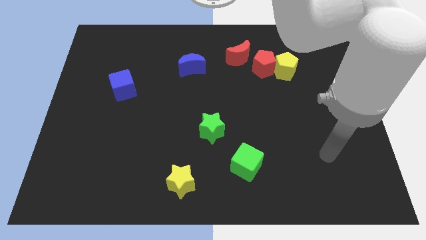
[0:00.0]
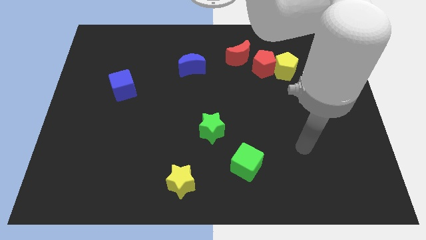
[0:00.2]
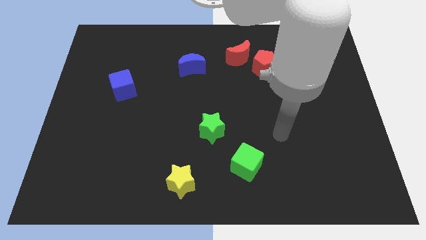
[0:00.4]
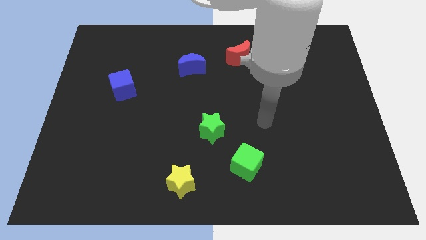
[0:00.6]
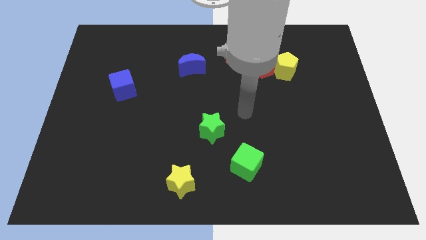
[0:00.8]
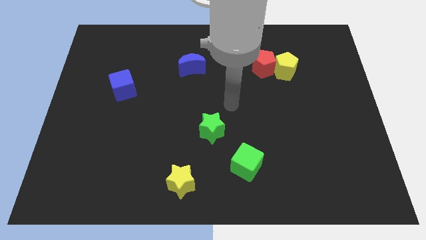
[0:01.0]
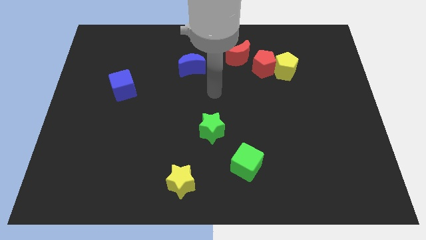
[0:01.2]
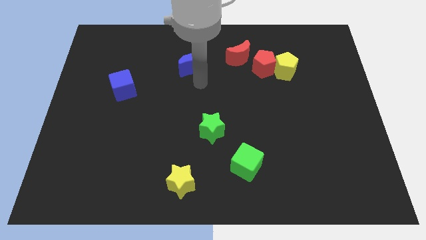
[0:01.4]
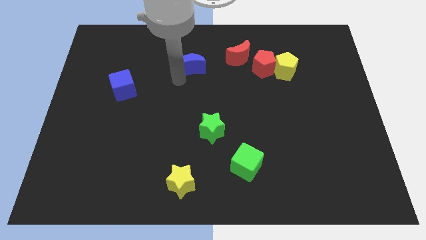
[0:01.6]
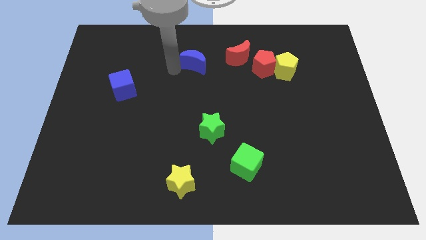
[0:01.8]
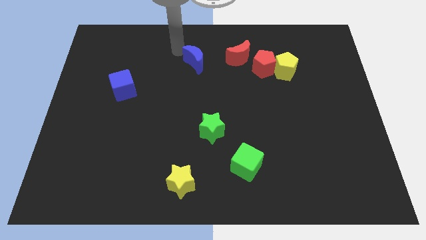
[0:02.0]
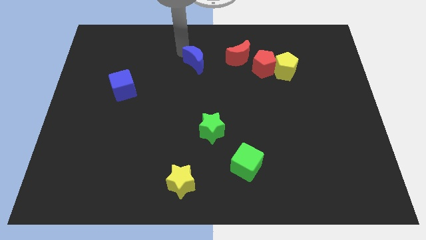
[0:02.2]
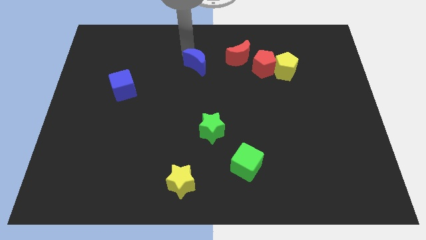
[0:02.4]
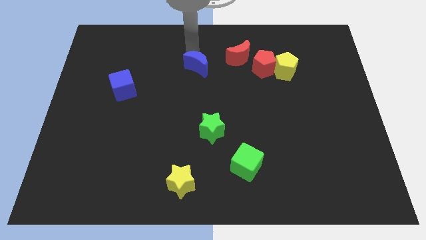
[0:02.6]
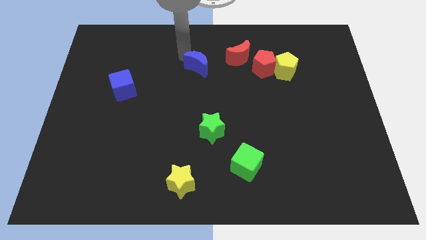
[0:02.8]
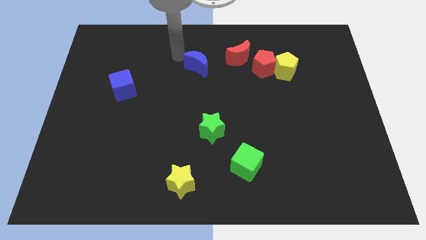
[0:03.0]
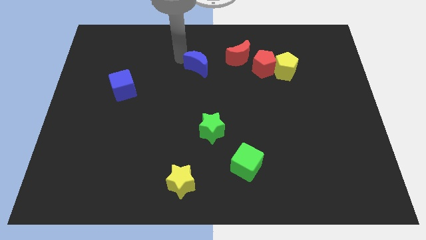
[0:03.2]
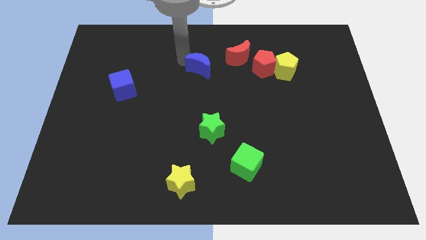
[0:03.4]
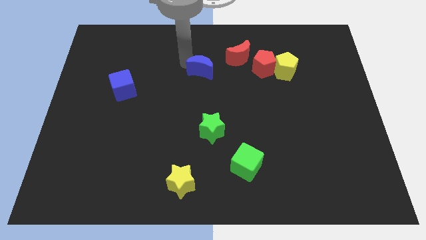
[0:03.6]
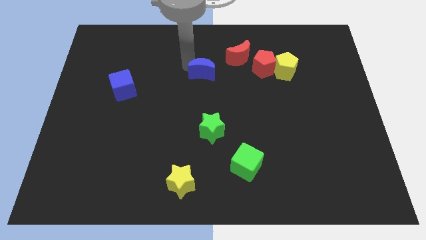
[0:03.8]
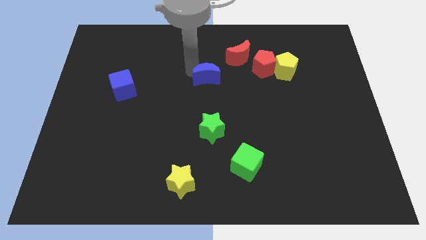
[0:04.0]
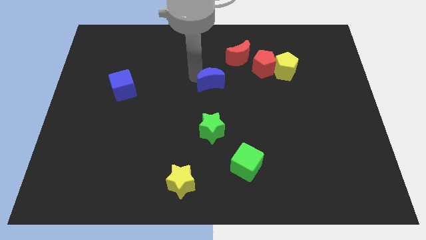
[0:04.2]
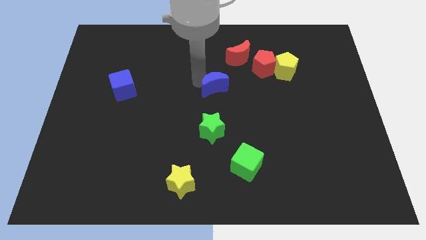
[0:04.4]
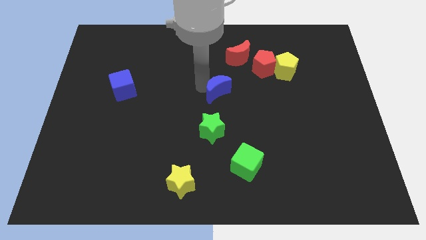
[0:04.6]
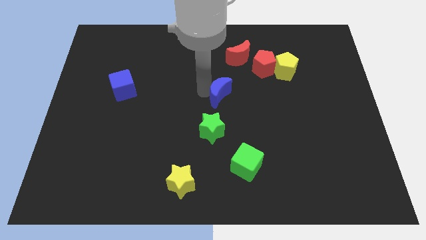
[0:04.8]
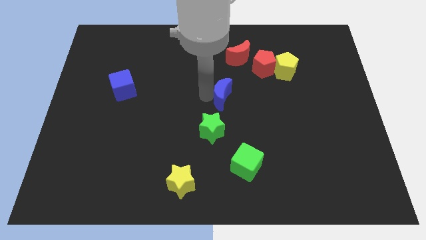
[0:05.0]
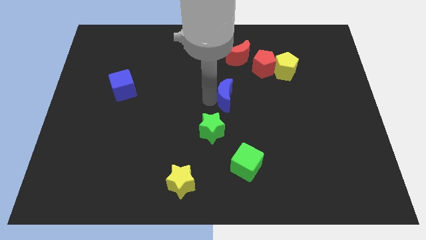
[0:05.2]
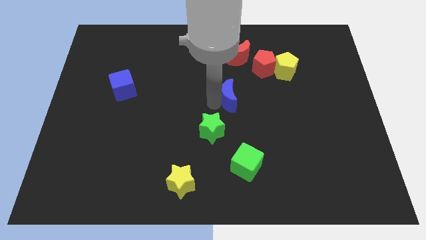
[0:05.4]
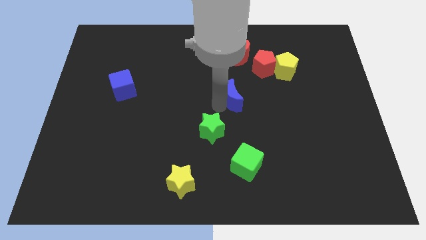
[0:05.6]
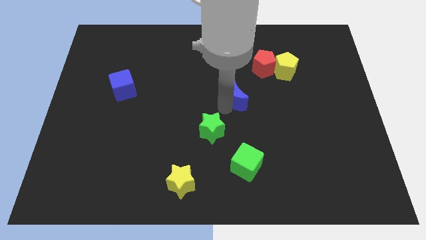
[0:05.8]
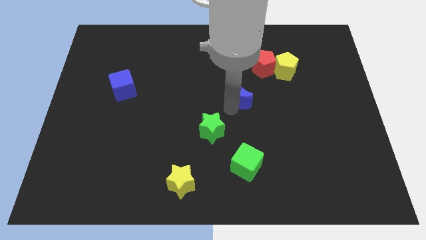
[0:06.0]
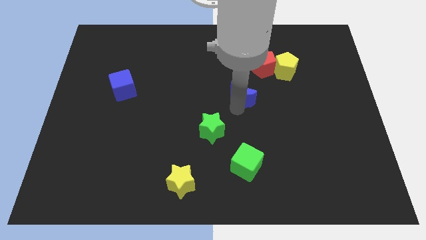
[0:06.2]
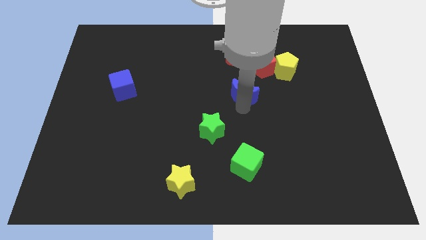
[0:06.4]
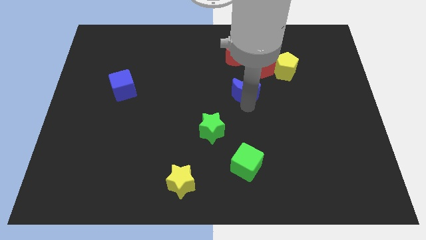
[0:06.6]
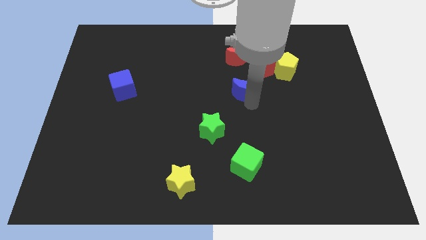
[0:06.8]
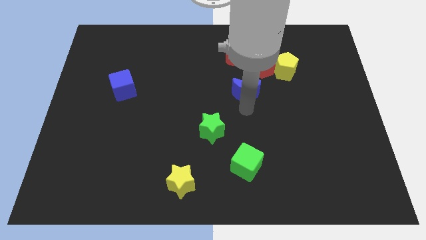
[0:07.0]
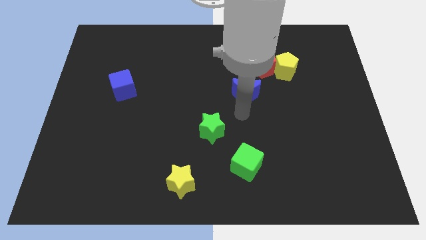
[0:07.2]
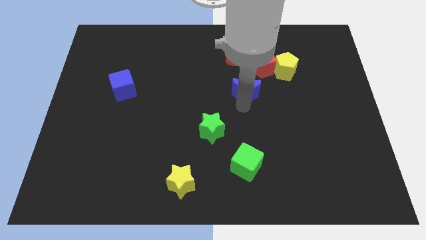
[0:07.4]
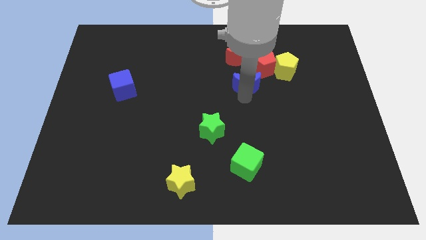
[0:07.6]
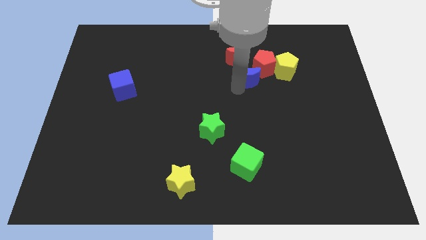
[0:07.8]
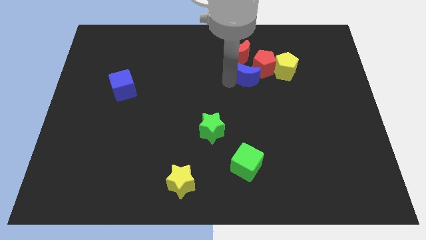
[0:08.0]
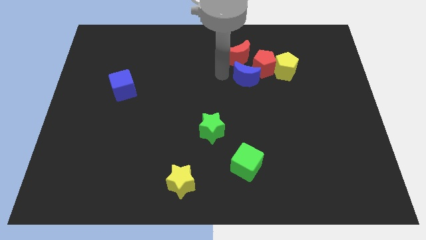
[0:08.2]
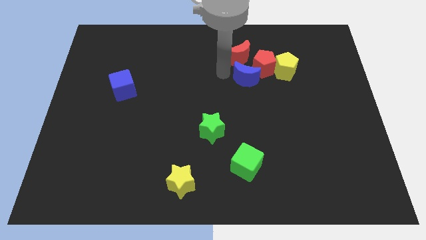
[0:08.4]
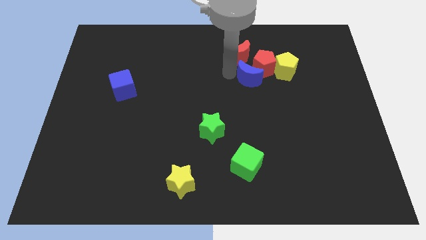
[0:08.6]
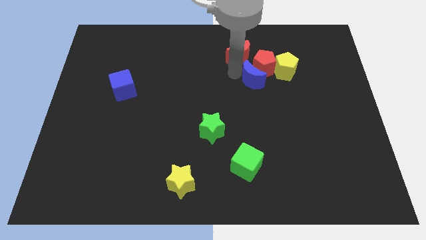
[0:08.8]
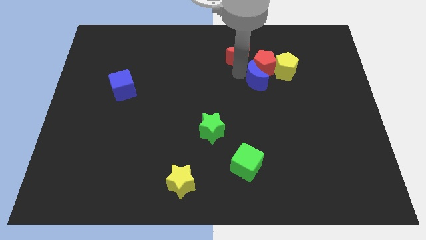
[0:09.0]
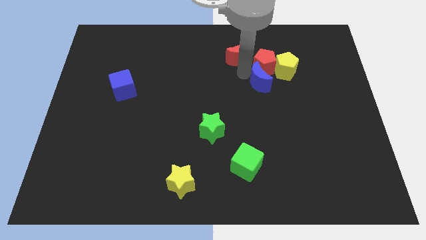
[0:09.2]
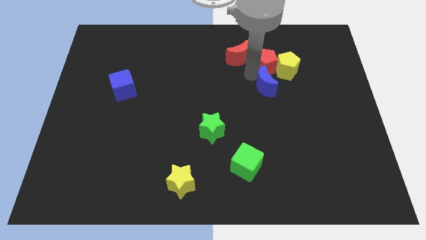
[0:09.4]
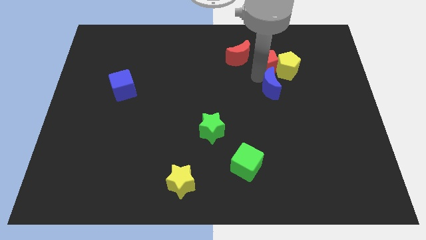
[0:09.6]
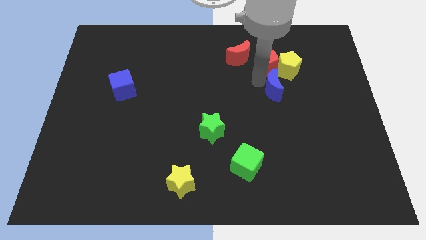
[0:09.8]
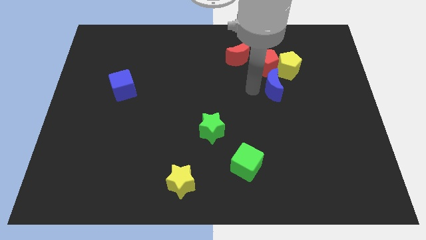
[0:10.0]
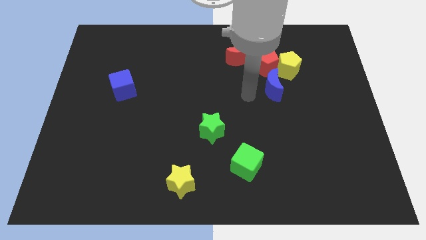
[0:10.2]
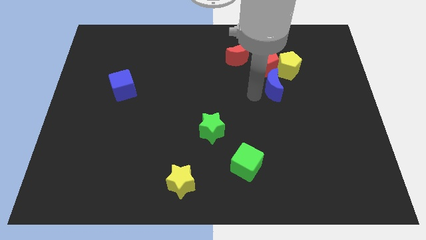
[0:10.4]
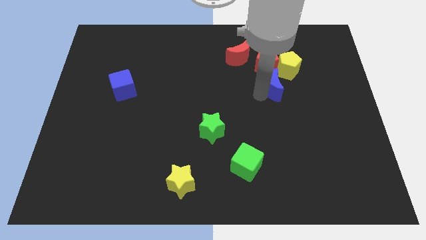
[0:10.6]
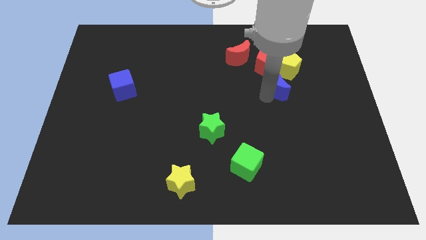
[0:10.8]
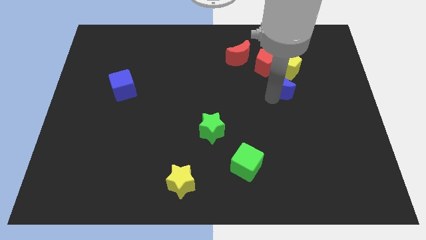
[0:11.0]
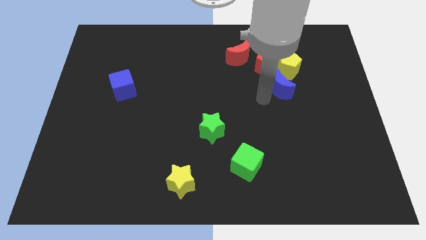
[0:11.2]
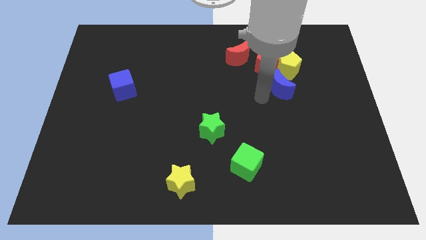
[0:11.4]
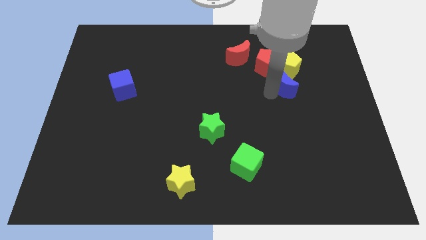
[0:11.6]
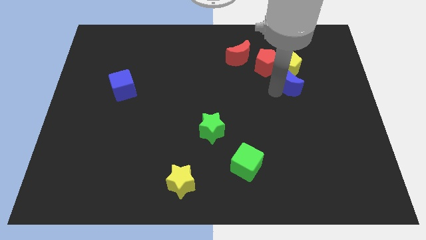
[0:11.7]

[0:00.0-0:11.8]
move the blue moon to the bottom right of the yellow pentagon

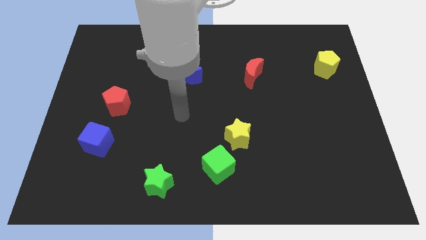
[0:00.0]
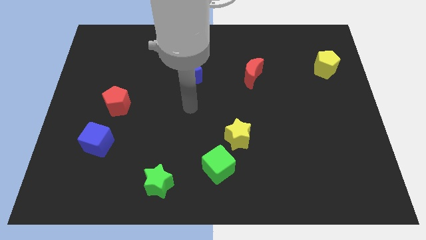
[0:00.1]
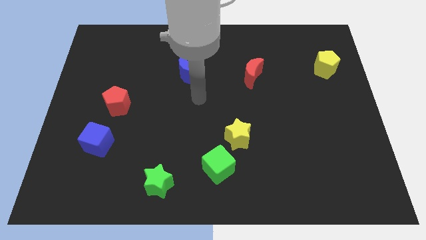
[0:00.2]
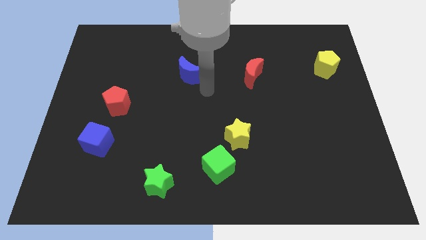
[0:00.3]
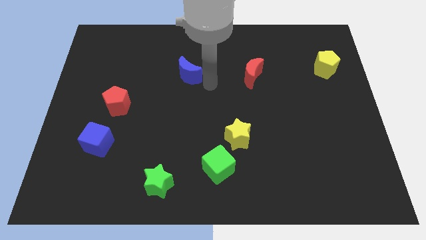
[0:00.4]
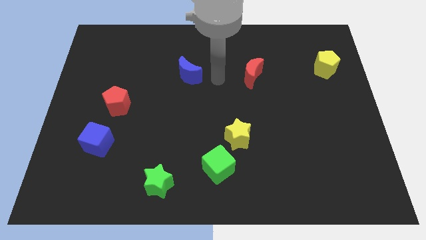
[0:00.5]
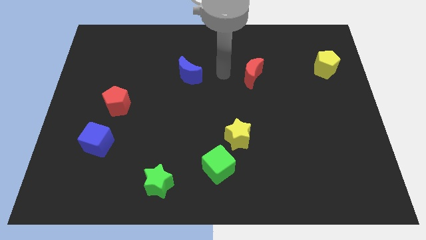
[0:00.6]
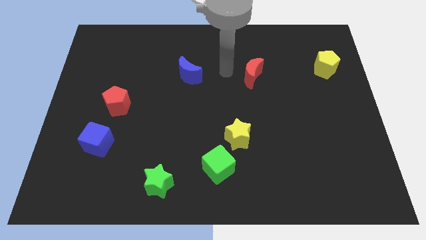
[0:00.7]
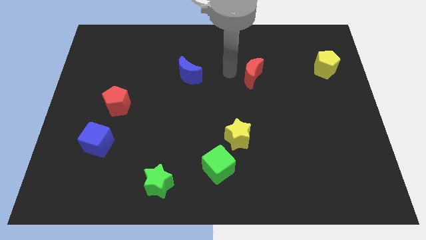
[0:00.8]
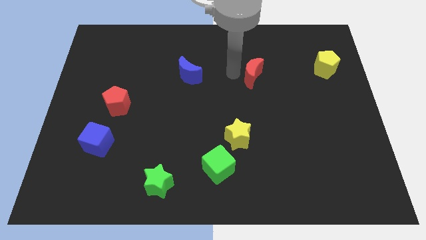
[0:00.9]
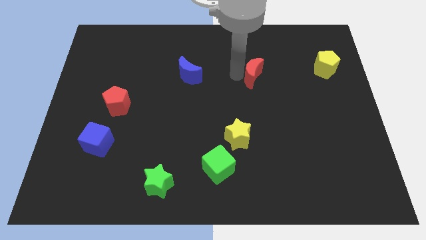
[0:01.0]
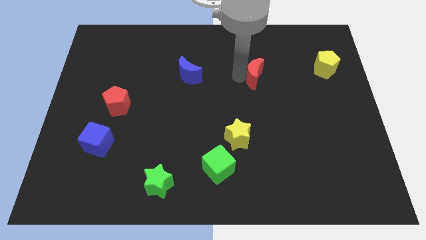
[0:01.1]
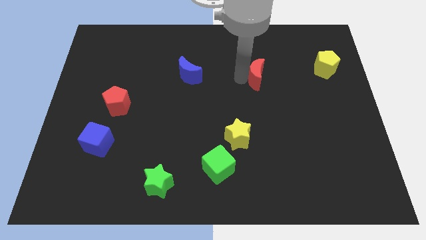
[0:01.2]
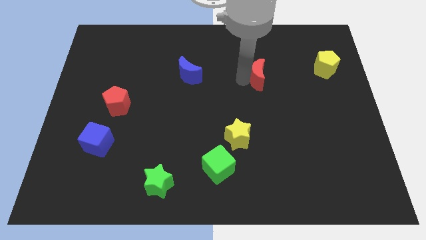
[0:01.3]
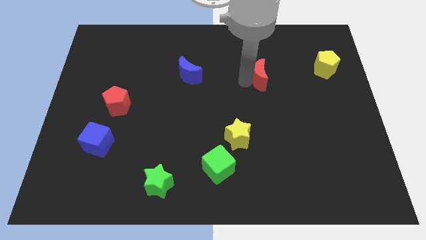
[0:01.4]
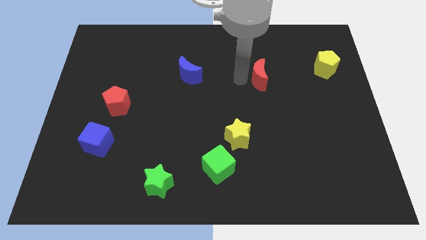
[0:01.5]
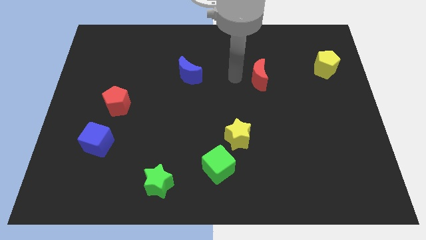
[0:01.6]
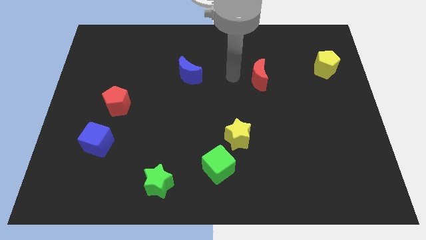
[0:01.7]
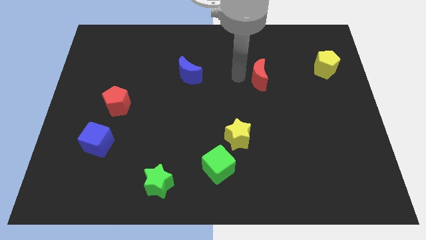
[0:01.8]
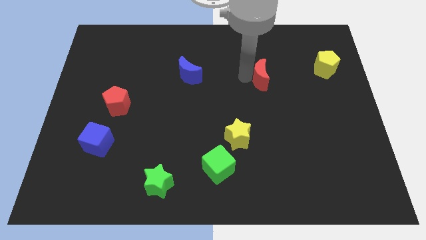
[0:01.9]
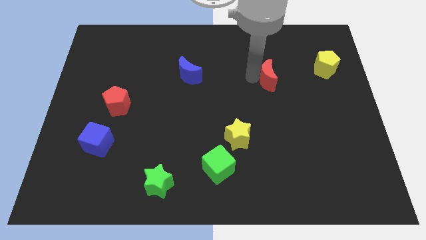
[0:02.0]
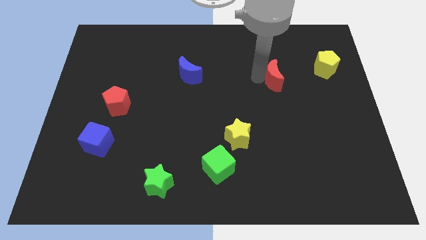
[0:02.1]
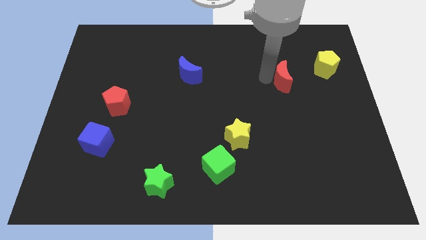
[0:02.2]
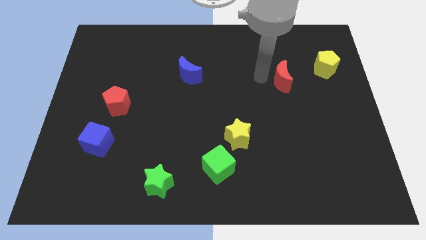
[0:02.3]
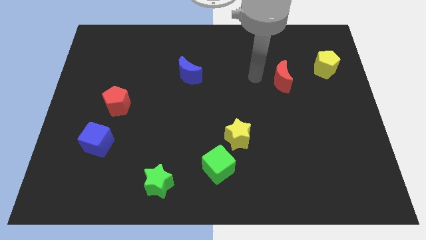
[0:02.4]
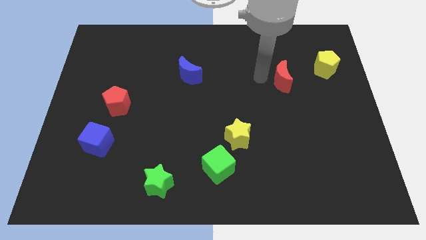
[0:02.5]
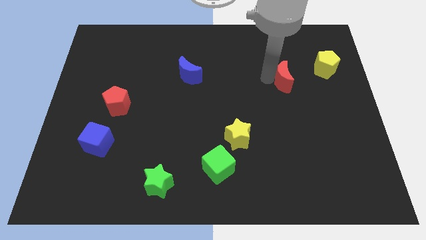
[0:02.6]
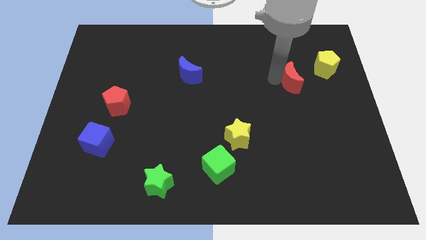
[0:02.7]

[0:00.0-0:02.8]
put the red moon to the bottom left of the yellow pentagon
